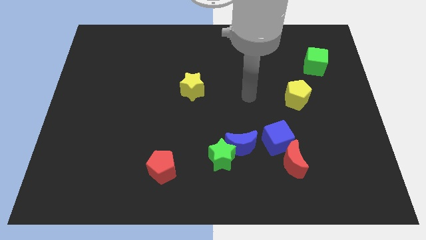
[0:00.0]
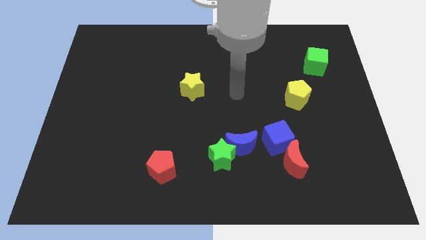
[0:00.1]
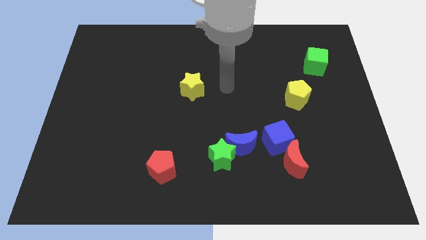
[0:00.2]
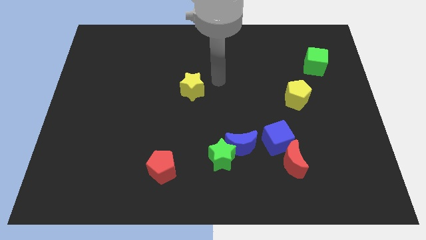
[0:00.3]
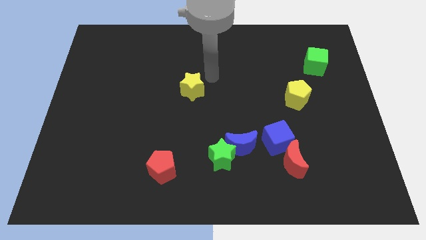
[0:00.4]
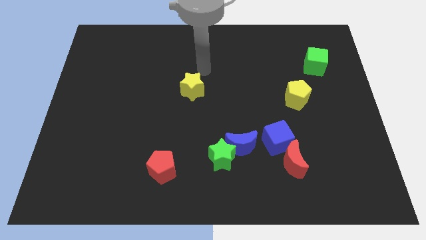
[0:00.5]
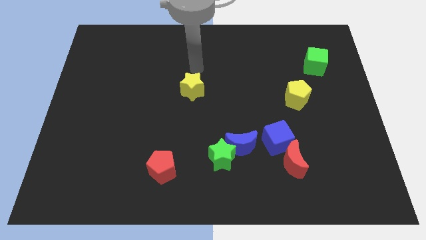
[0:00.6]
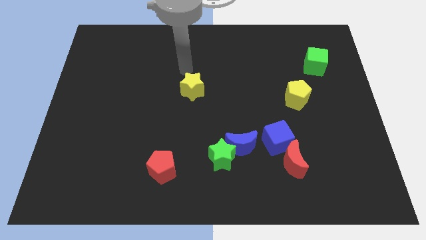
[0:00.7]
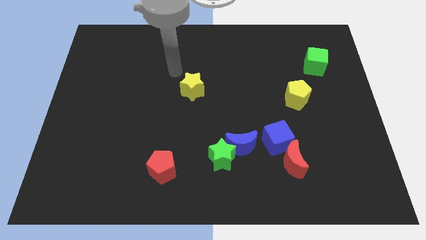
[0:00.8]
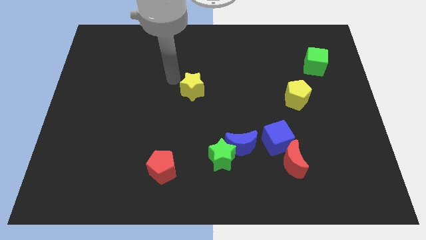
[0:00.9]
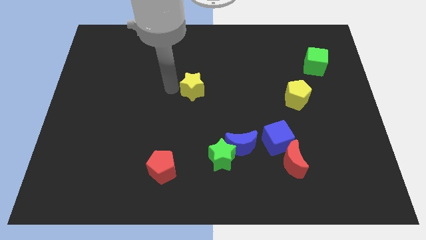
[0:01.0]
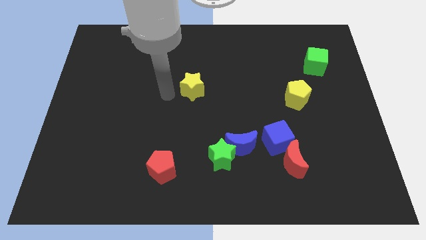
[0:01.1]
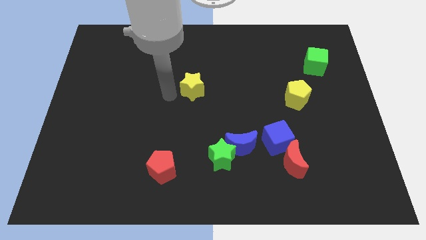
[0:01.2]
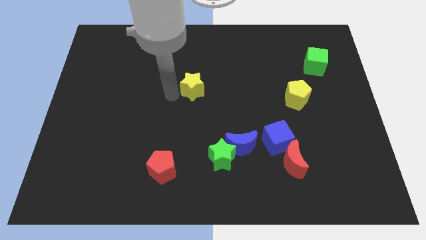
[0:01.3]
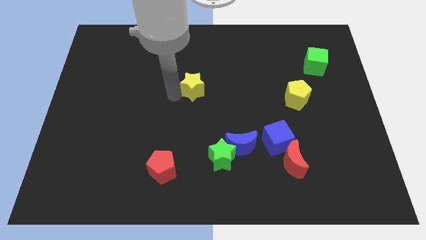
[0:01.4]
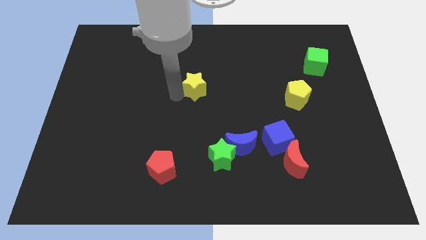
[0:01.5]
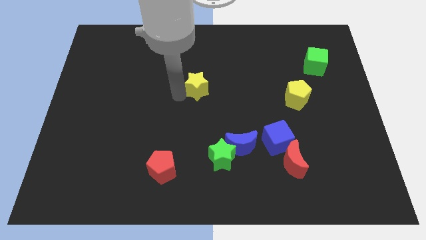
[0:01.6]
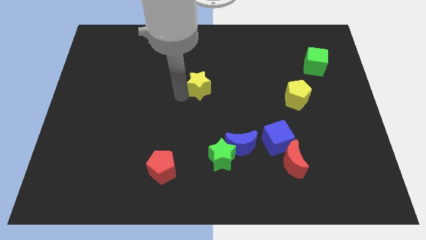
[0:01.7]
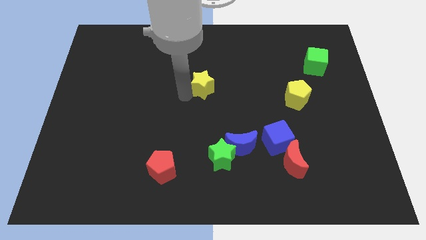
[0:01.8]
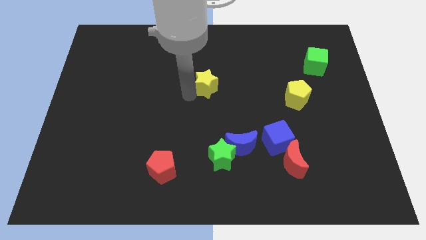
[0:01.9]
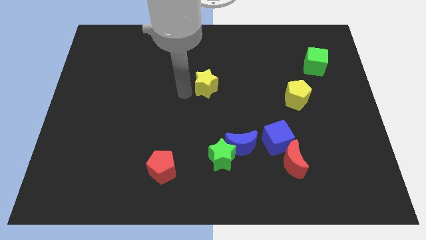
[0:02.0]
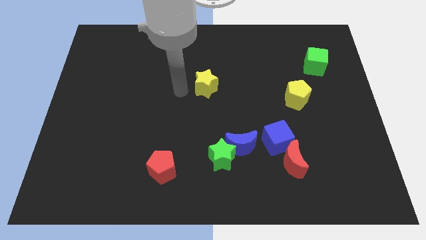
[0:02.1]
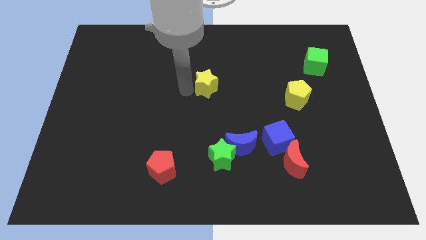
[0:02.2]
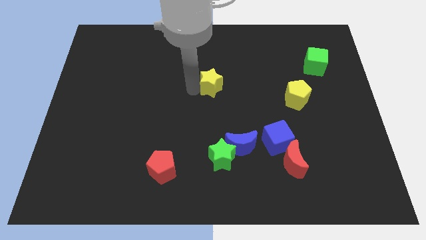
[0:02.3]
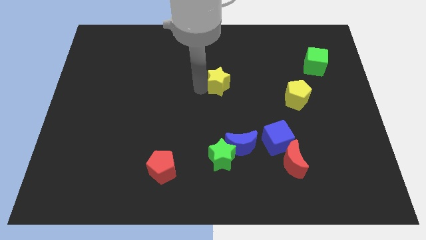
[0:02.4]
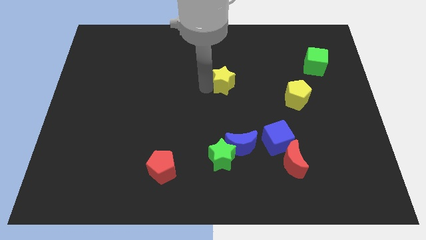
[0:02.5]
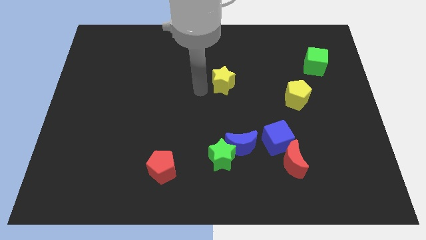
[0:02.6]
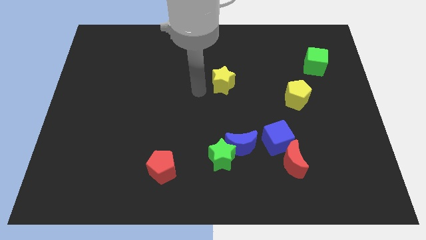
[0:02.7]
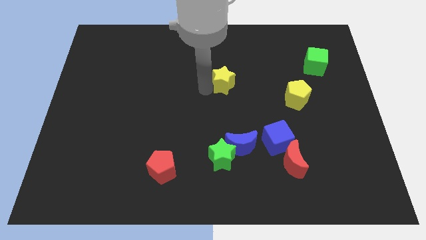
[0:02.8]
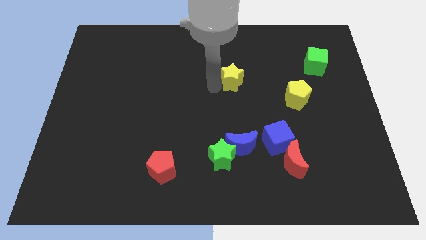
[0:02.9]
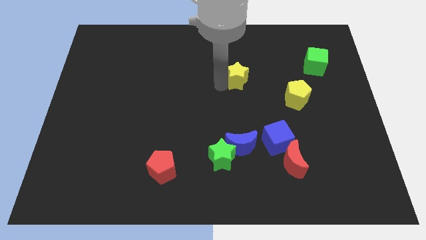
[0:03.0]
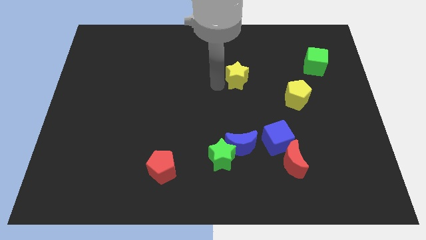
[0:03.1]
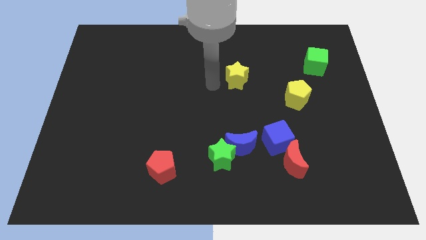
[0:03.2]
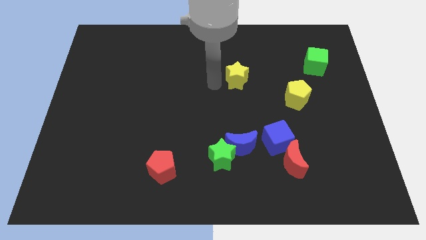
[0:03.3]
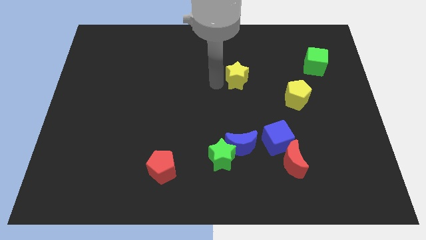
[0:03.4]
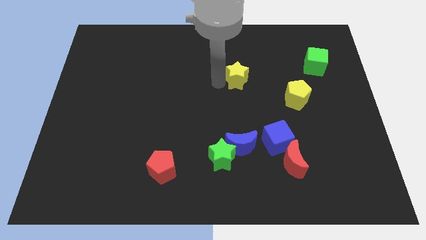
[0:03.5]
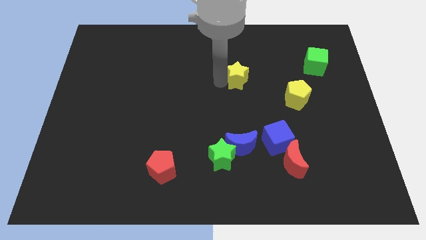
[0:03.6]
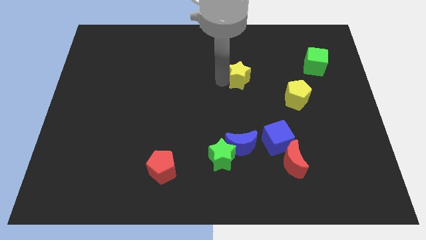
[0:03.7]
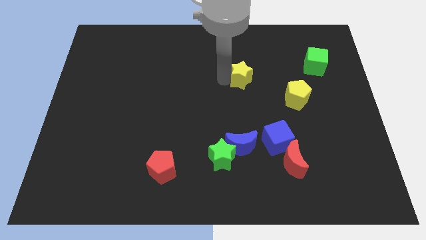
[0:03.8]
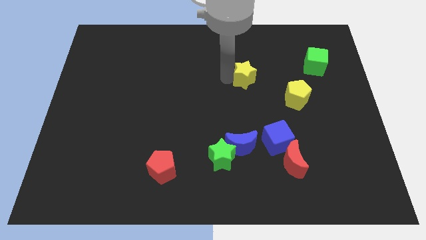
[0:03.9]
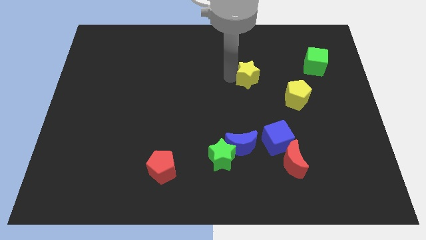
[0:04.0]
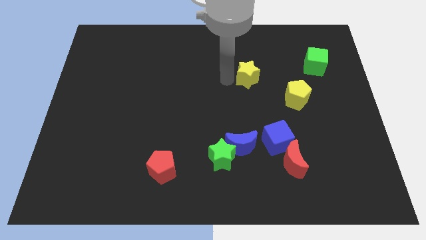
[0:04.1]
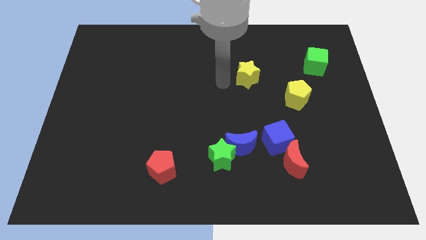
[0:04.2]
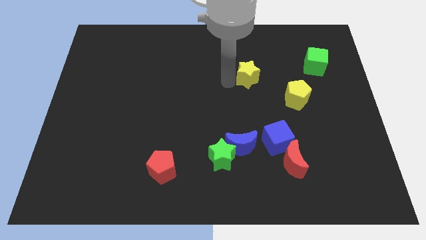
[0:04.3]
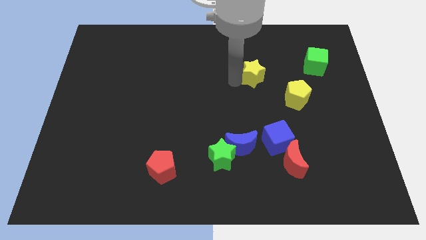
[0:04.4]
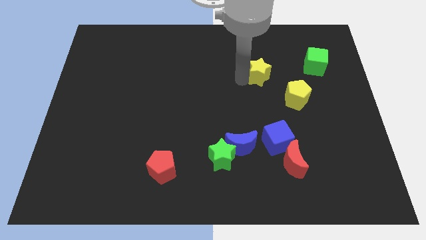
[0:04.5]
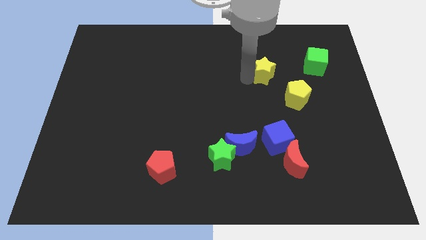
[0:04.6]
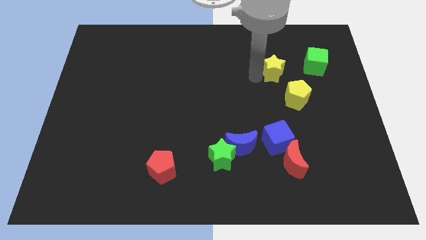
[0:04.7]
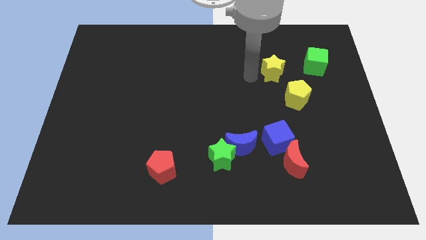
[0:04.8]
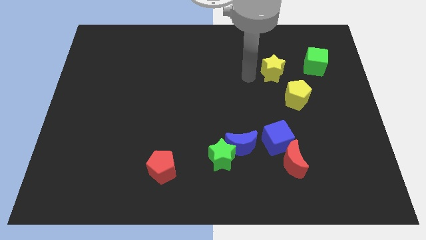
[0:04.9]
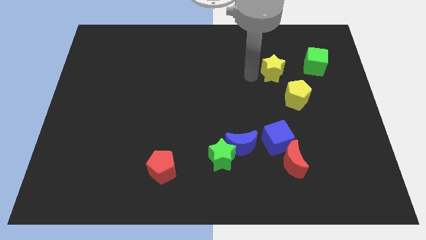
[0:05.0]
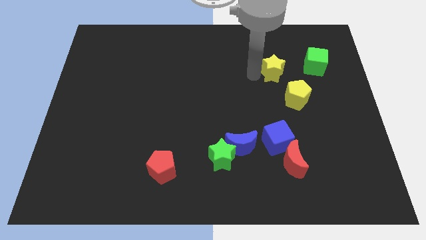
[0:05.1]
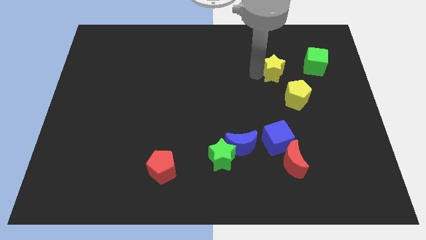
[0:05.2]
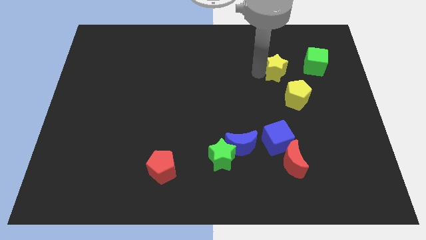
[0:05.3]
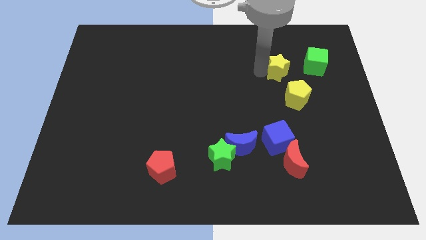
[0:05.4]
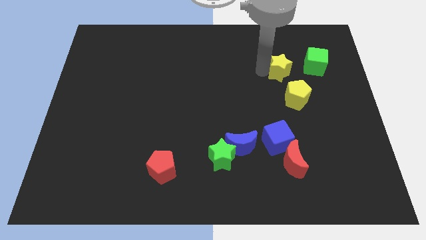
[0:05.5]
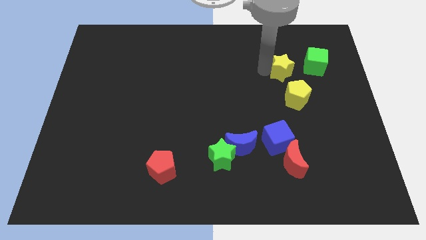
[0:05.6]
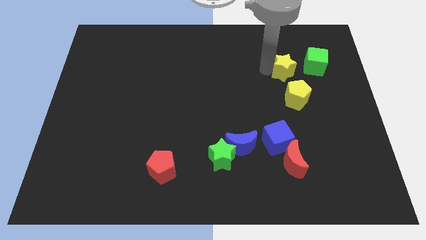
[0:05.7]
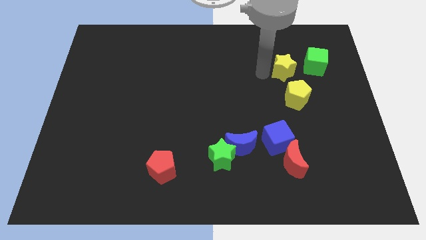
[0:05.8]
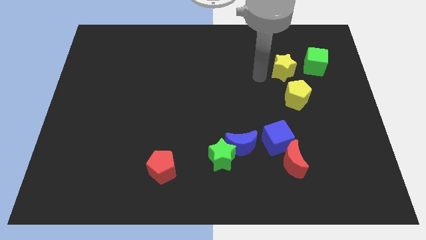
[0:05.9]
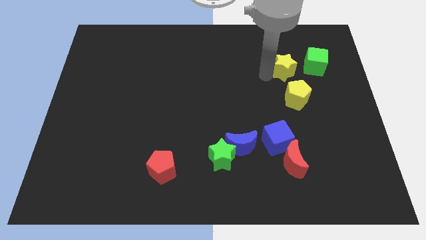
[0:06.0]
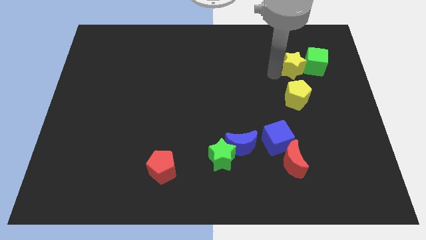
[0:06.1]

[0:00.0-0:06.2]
slide the yellow star close to the green cube

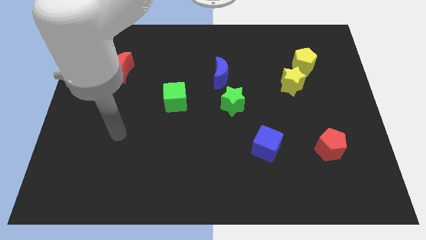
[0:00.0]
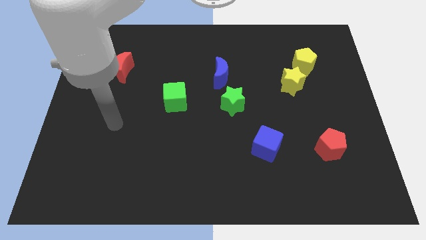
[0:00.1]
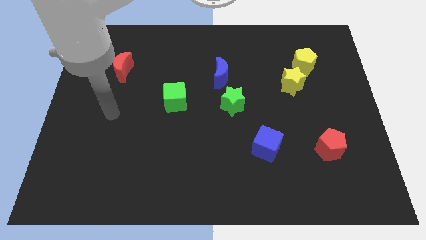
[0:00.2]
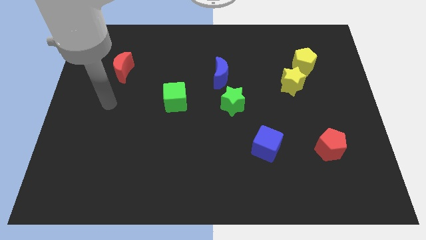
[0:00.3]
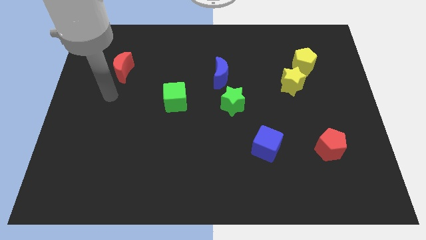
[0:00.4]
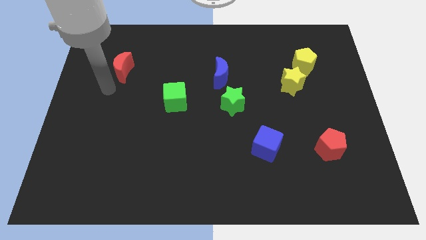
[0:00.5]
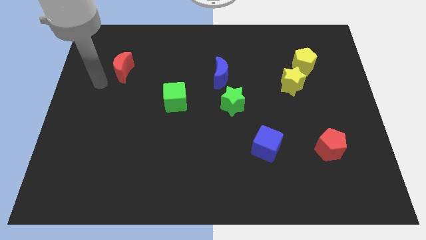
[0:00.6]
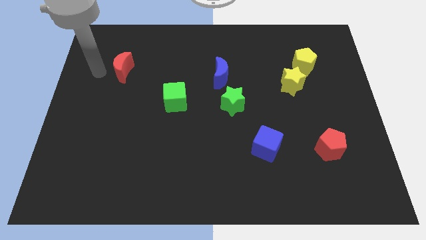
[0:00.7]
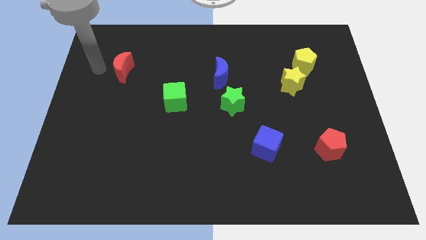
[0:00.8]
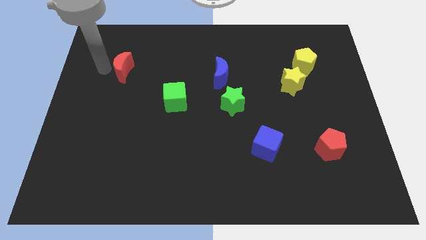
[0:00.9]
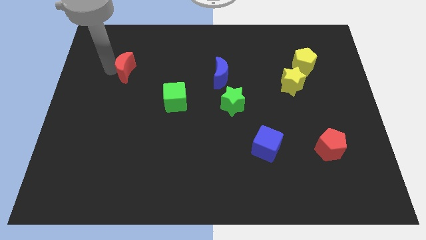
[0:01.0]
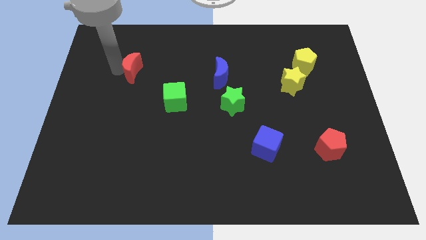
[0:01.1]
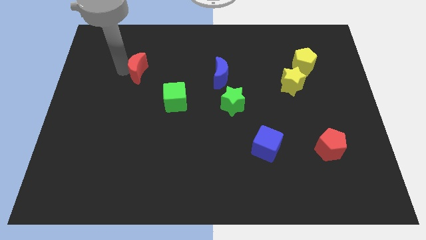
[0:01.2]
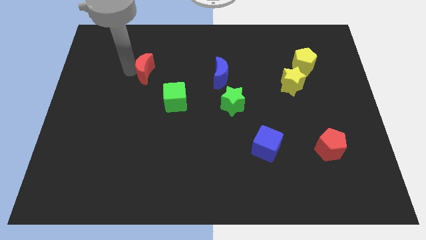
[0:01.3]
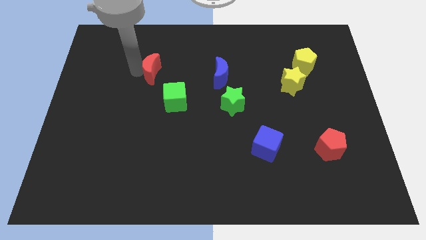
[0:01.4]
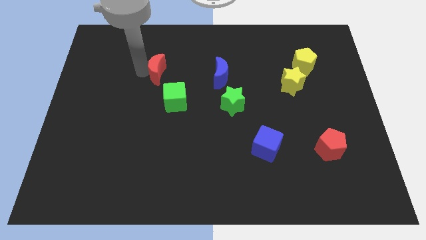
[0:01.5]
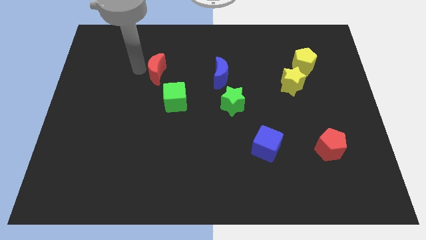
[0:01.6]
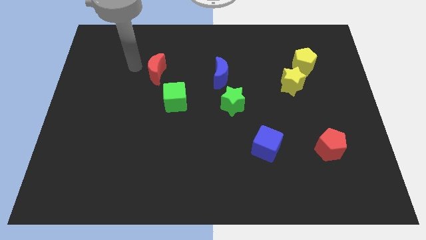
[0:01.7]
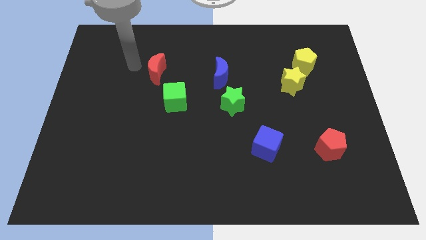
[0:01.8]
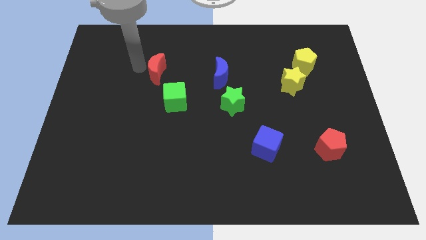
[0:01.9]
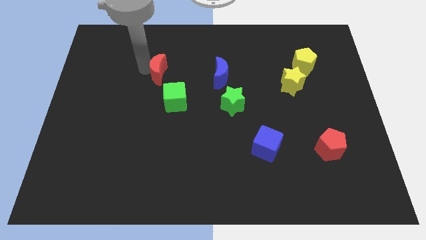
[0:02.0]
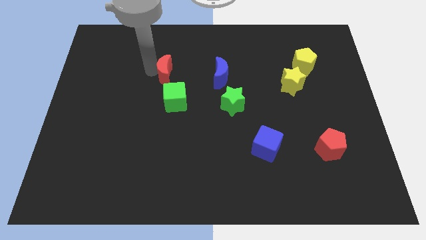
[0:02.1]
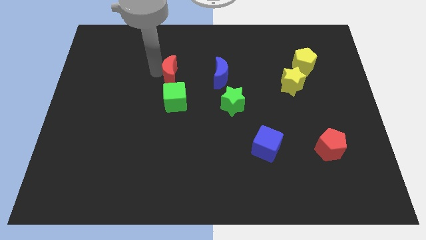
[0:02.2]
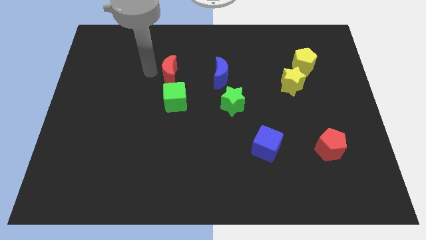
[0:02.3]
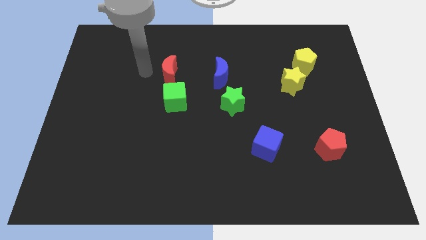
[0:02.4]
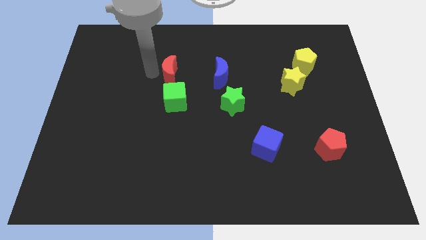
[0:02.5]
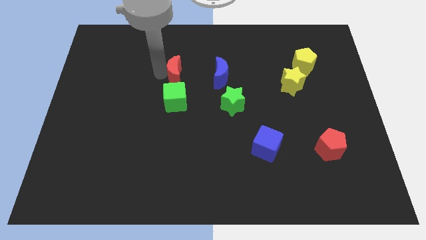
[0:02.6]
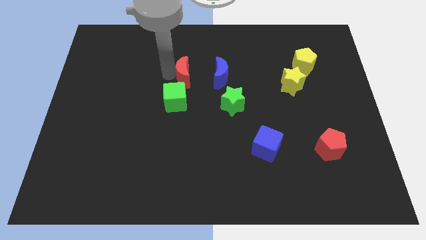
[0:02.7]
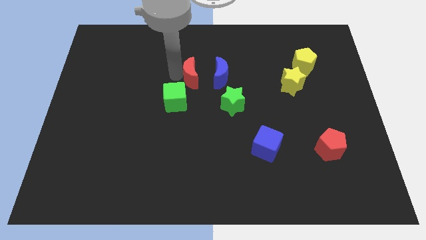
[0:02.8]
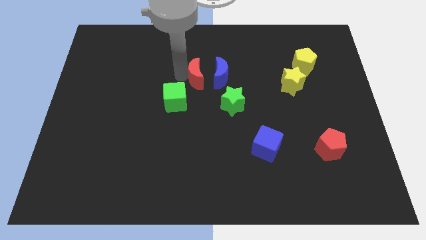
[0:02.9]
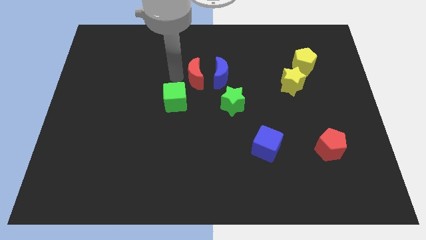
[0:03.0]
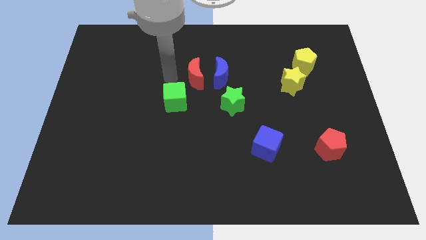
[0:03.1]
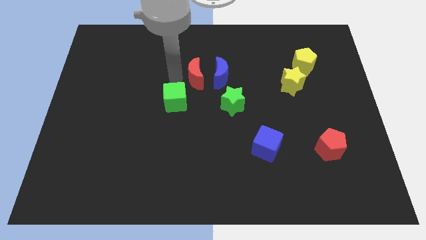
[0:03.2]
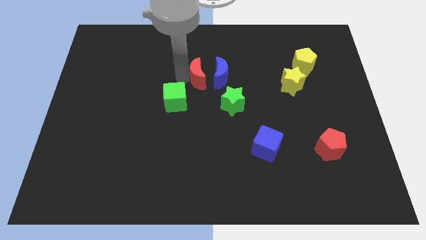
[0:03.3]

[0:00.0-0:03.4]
slide the red moon towards the blue moon
